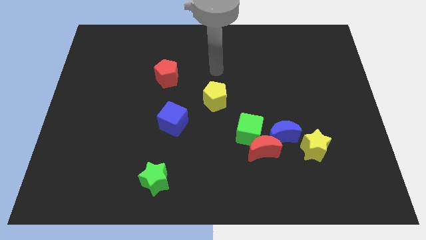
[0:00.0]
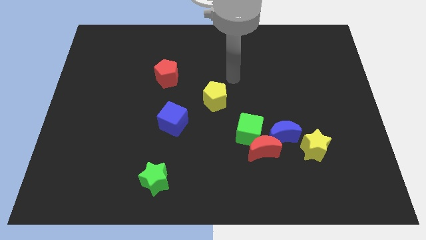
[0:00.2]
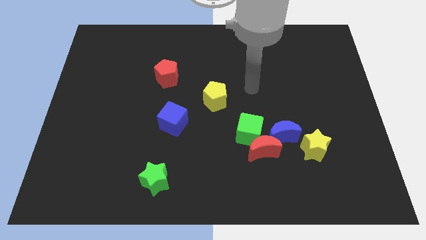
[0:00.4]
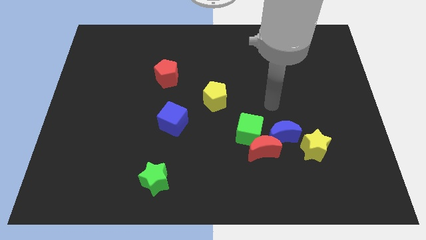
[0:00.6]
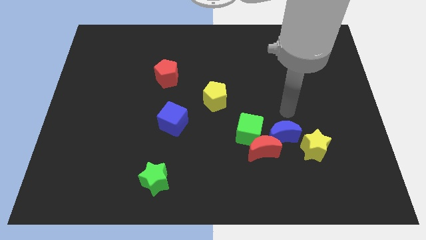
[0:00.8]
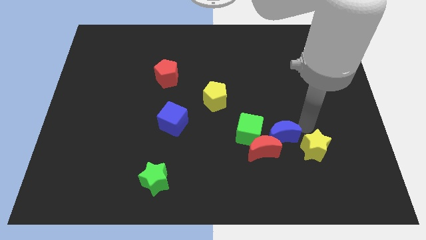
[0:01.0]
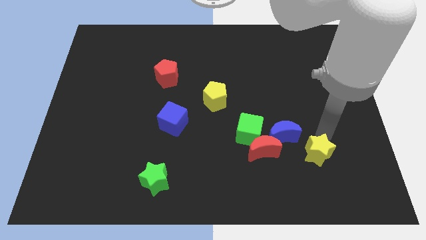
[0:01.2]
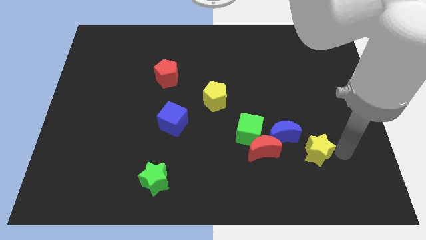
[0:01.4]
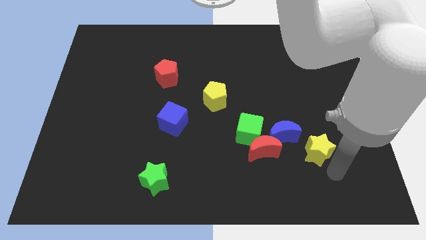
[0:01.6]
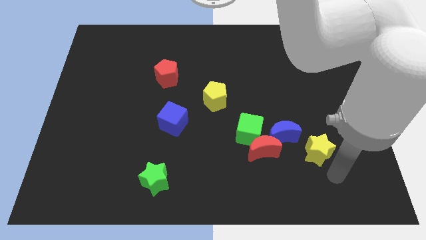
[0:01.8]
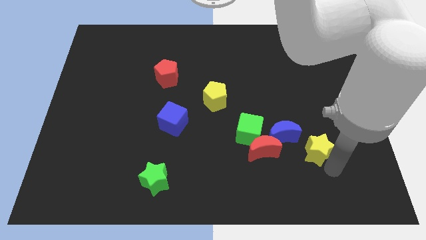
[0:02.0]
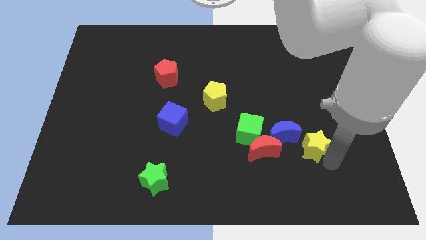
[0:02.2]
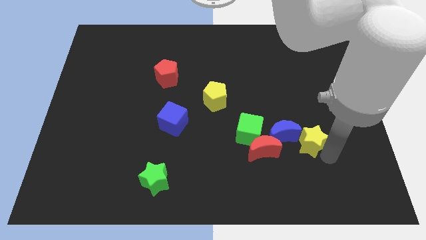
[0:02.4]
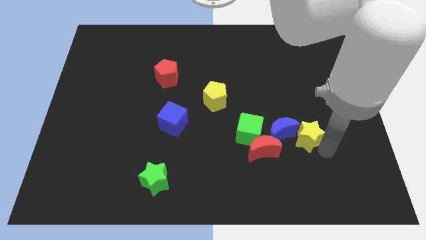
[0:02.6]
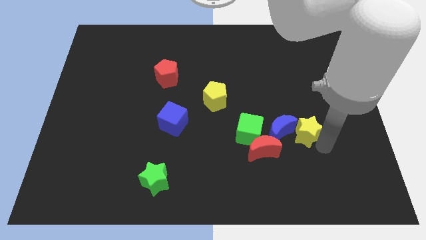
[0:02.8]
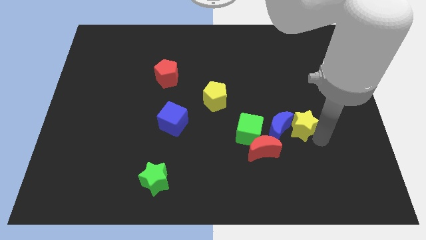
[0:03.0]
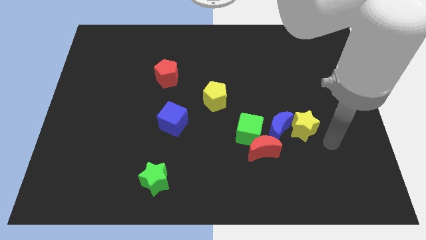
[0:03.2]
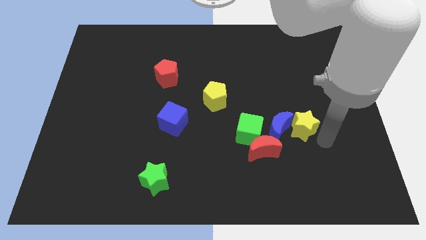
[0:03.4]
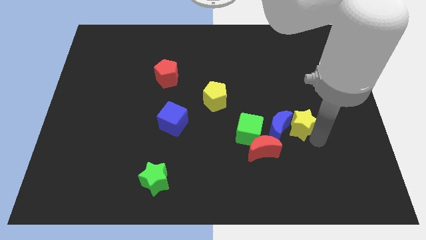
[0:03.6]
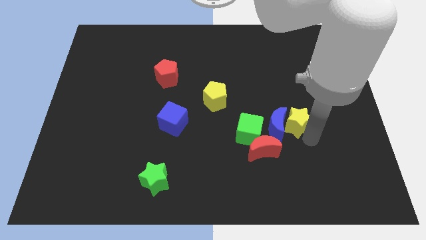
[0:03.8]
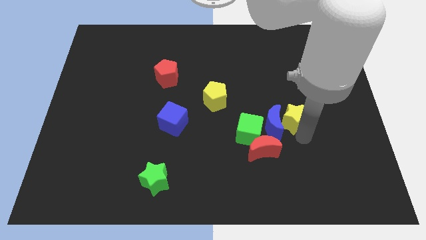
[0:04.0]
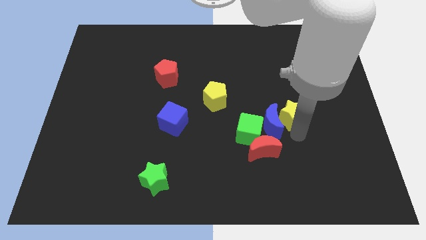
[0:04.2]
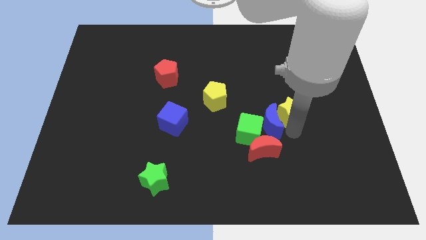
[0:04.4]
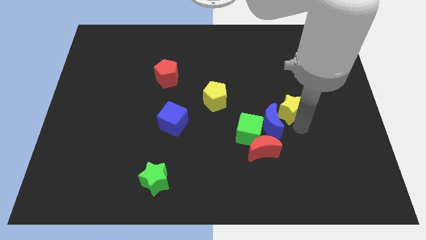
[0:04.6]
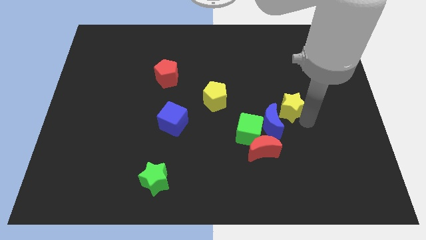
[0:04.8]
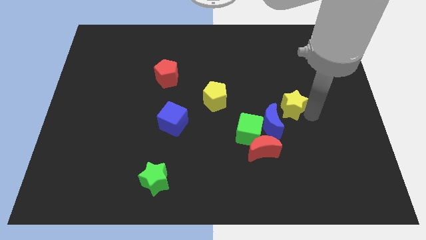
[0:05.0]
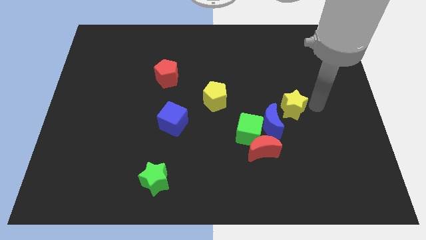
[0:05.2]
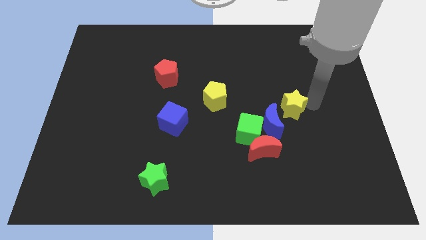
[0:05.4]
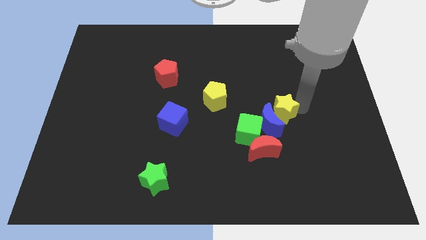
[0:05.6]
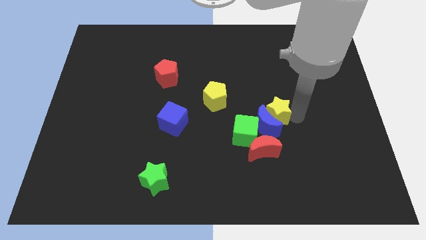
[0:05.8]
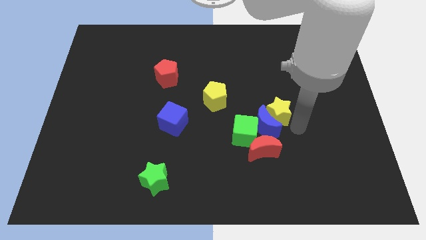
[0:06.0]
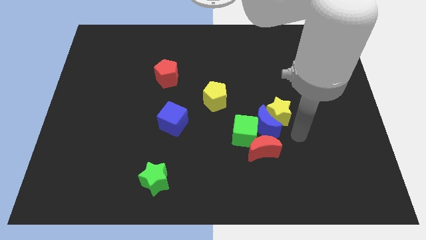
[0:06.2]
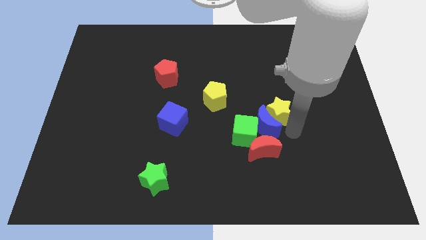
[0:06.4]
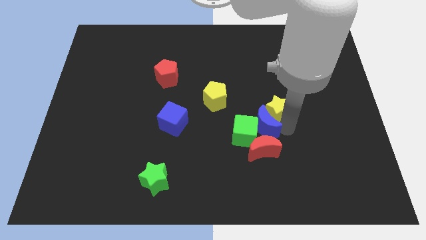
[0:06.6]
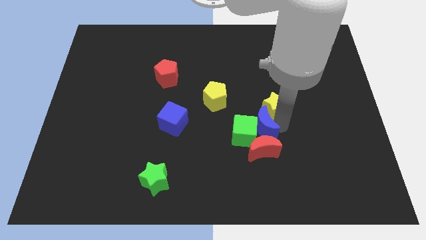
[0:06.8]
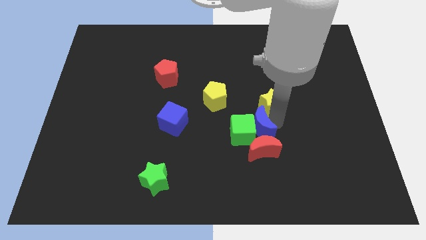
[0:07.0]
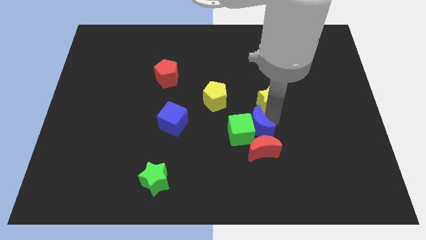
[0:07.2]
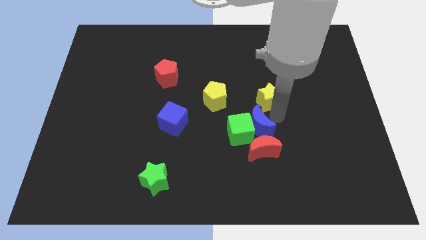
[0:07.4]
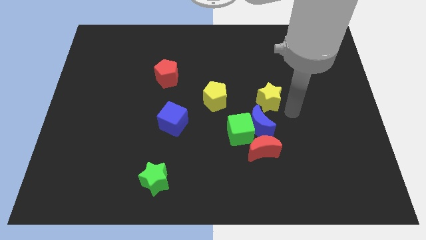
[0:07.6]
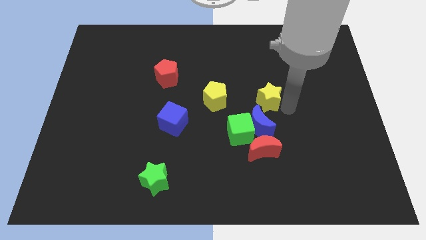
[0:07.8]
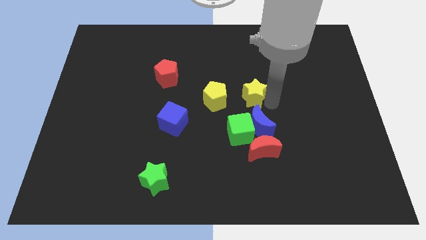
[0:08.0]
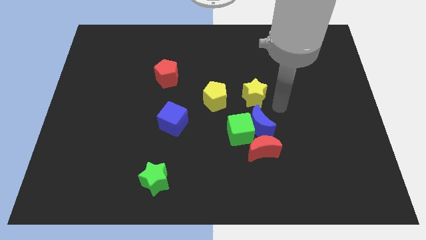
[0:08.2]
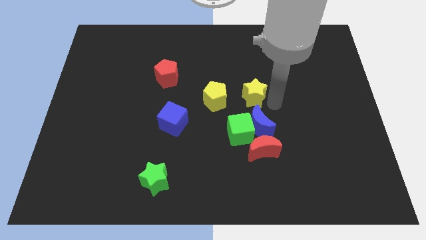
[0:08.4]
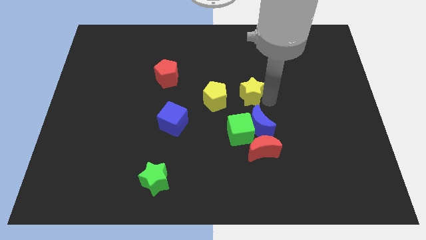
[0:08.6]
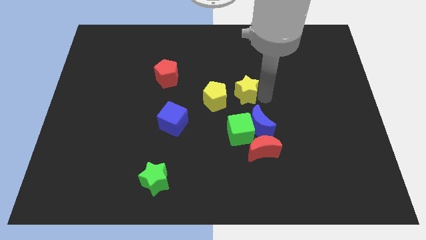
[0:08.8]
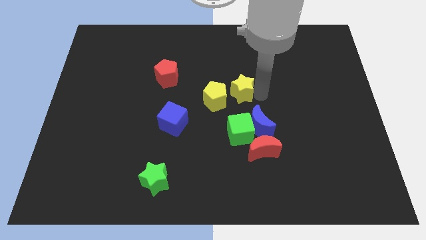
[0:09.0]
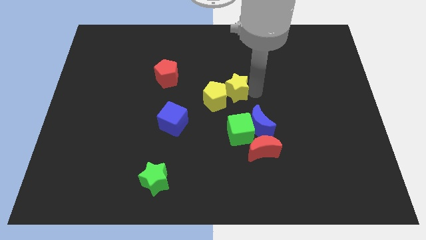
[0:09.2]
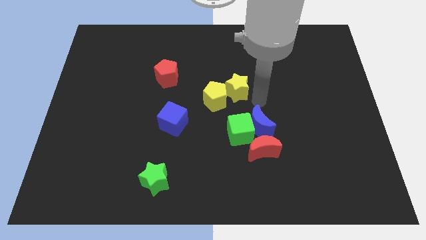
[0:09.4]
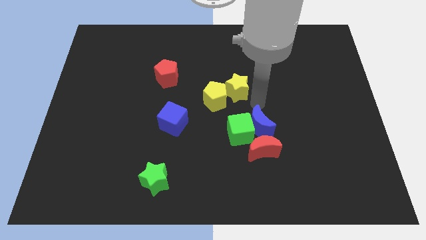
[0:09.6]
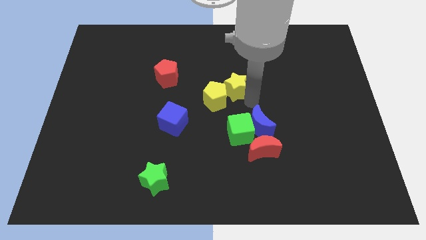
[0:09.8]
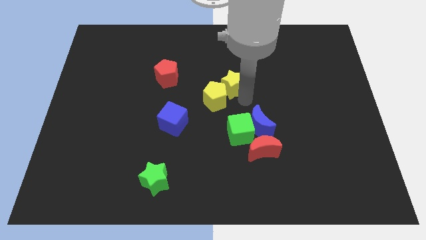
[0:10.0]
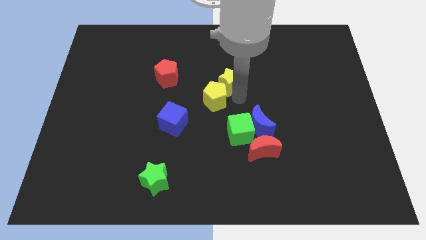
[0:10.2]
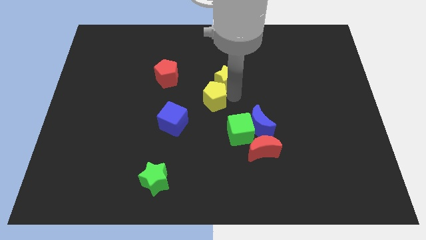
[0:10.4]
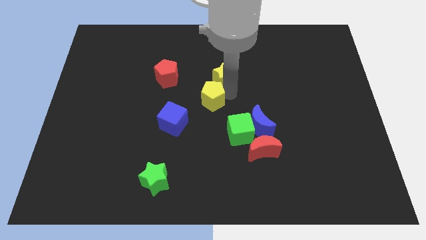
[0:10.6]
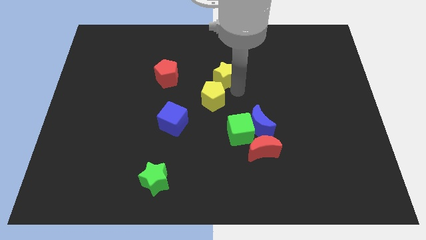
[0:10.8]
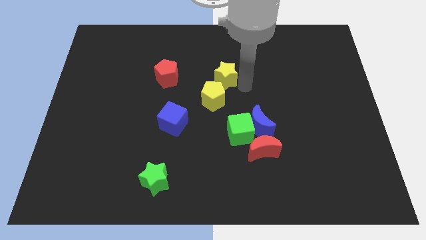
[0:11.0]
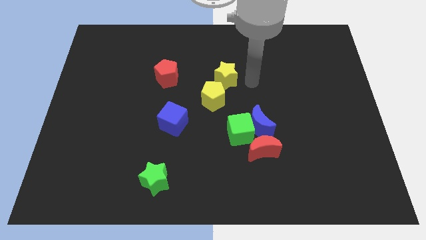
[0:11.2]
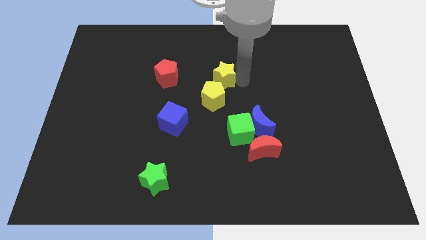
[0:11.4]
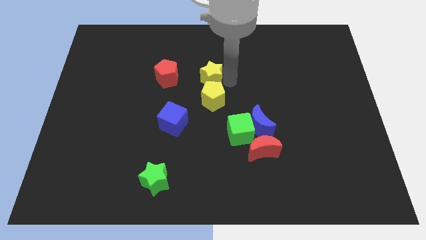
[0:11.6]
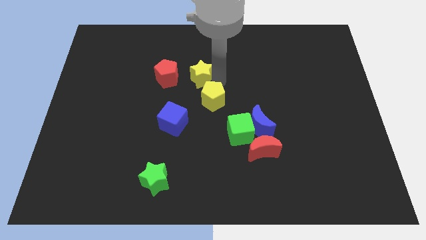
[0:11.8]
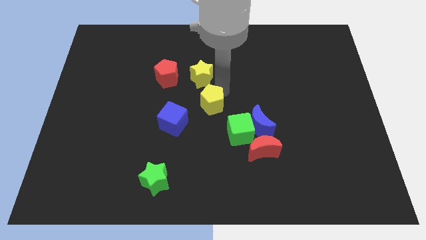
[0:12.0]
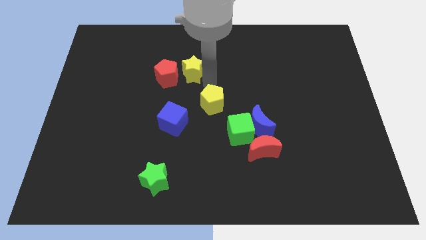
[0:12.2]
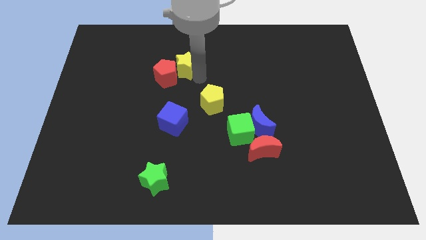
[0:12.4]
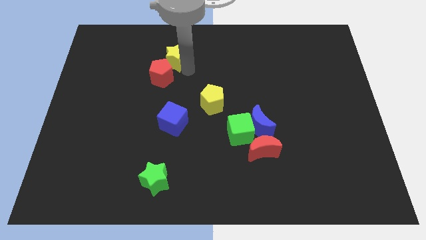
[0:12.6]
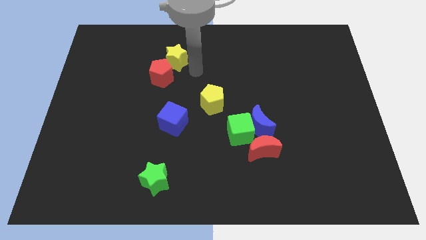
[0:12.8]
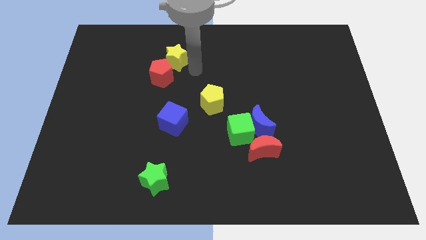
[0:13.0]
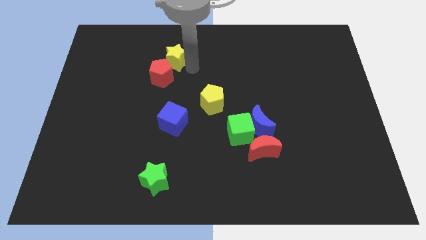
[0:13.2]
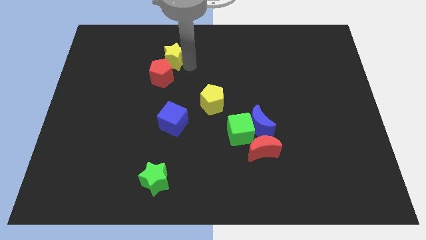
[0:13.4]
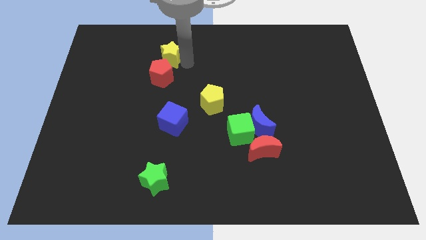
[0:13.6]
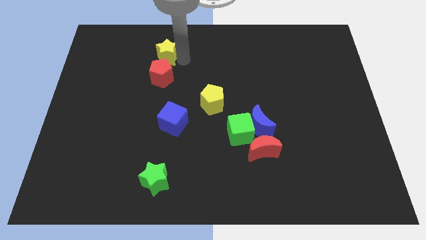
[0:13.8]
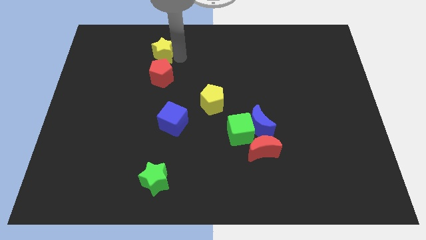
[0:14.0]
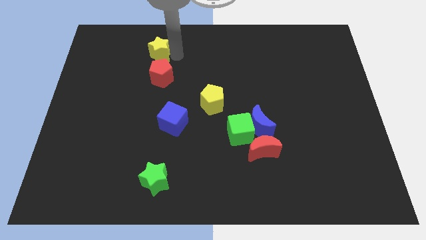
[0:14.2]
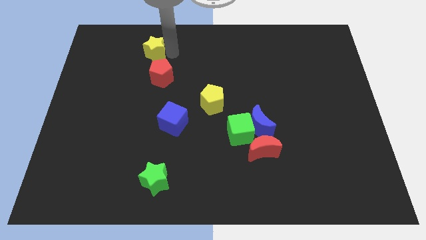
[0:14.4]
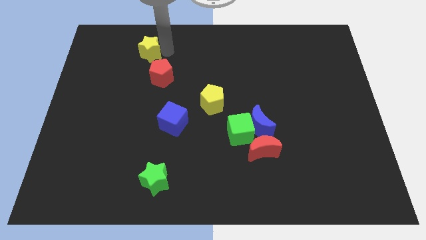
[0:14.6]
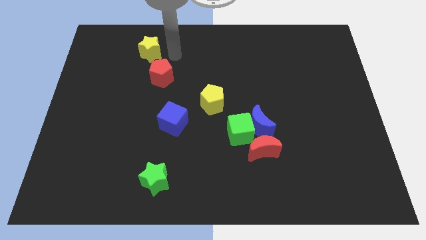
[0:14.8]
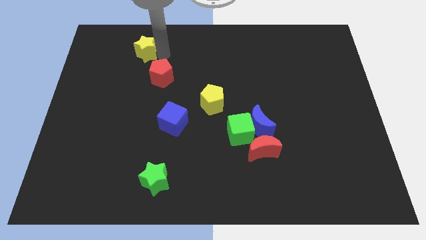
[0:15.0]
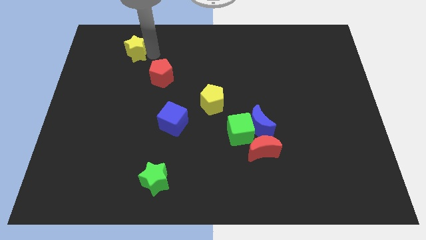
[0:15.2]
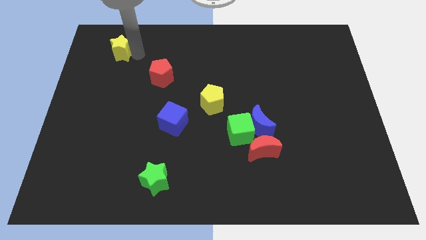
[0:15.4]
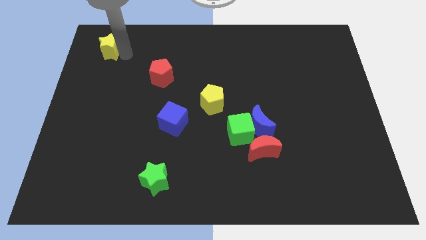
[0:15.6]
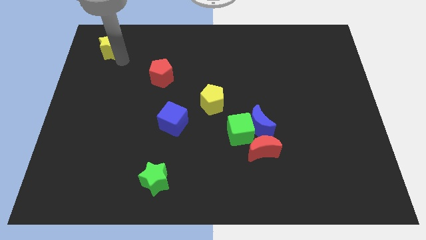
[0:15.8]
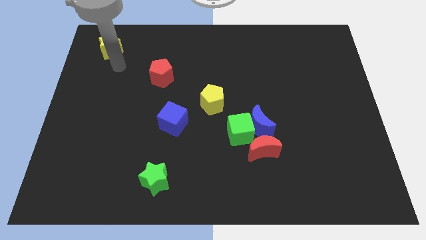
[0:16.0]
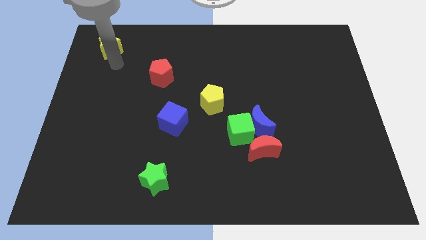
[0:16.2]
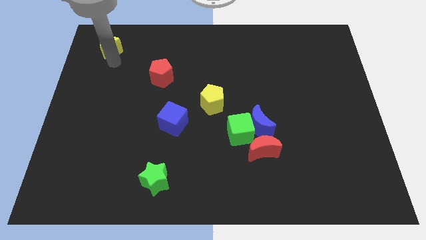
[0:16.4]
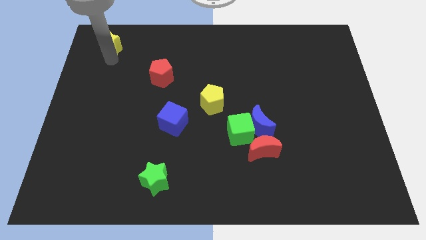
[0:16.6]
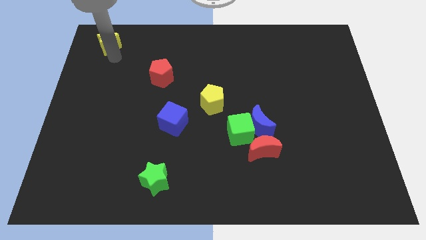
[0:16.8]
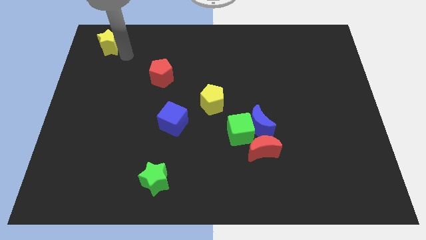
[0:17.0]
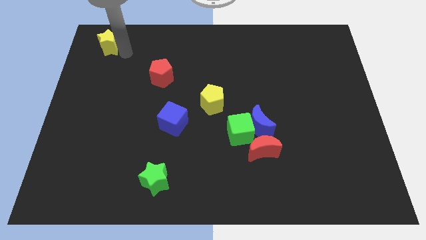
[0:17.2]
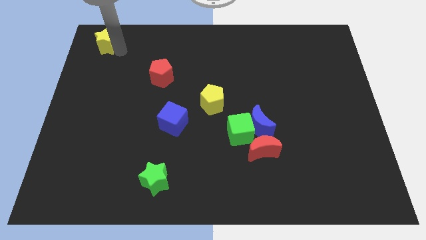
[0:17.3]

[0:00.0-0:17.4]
push the yellow star to the top left of the board
